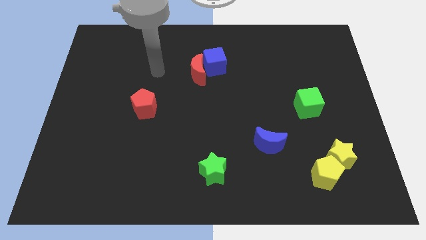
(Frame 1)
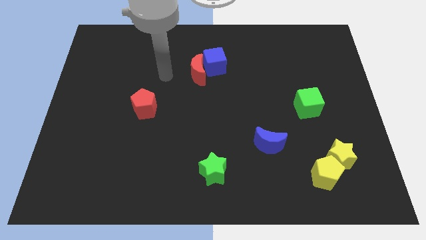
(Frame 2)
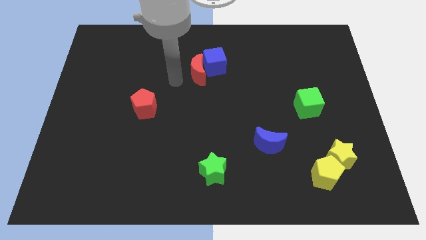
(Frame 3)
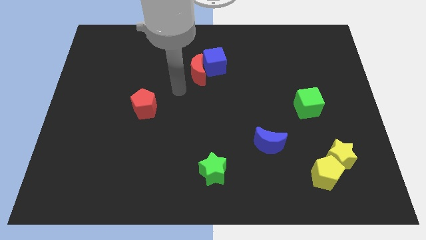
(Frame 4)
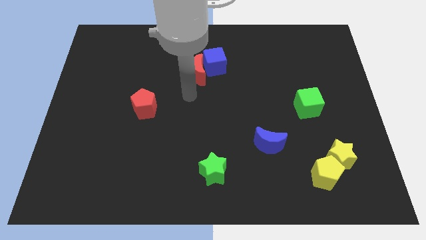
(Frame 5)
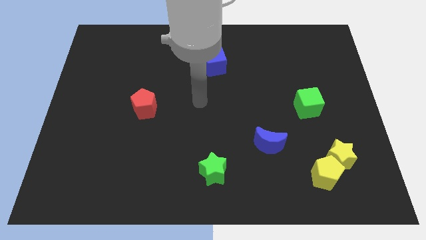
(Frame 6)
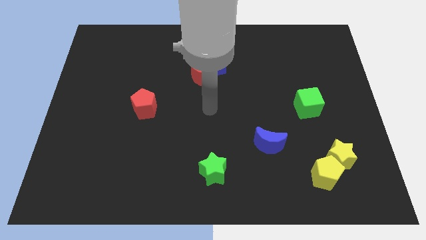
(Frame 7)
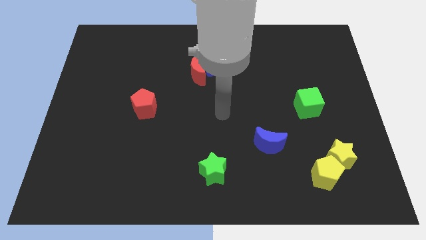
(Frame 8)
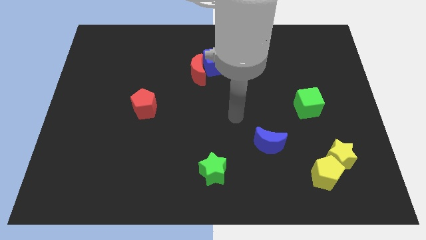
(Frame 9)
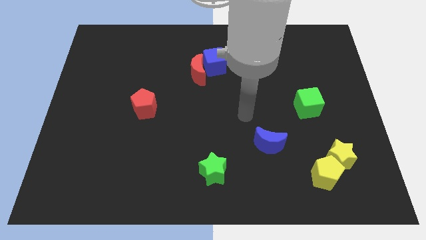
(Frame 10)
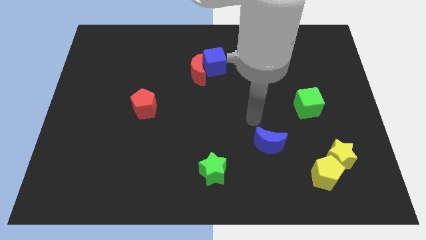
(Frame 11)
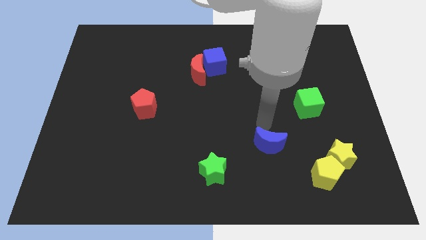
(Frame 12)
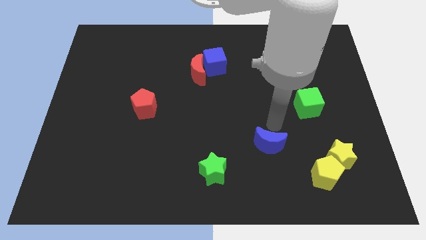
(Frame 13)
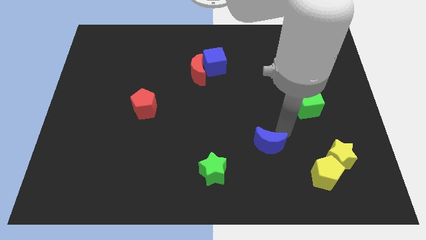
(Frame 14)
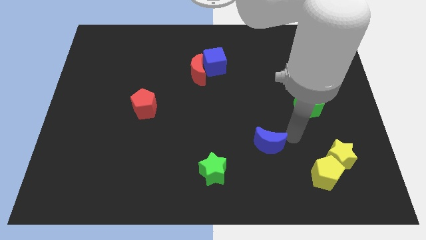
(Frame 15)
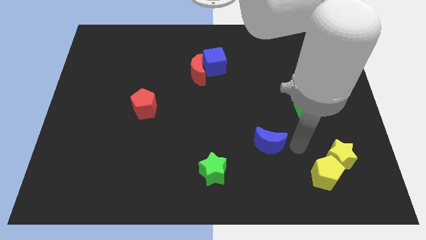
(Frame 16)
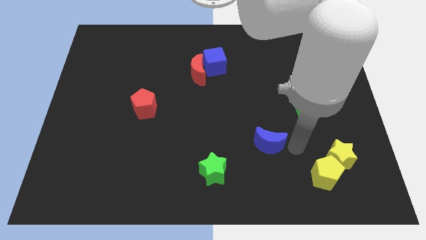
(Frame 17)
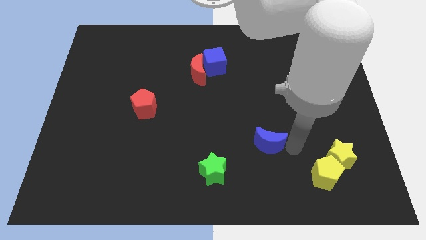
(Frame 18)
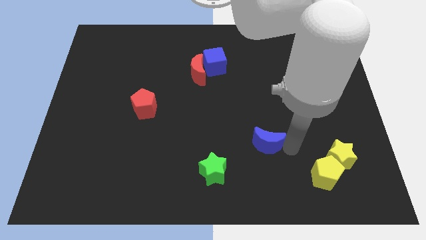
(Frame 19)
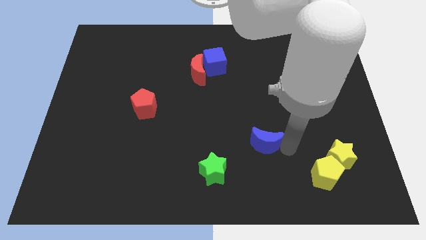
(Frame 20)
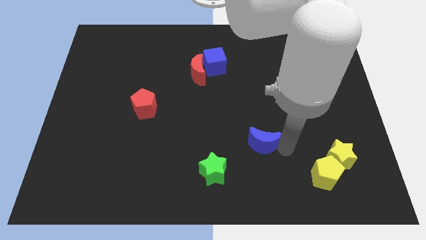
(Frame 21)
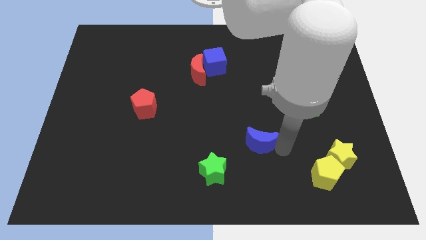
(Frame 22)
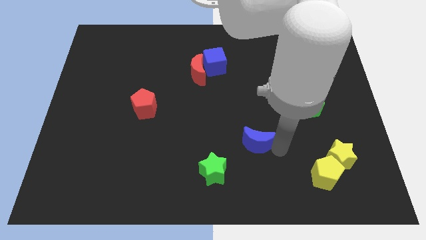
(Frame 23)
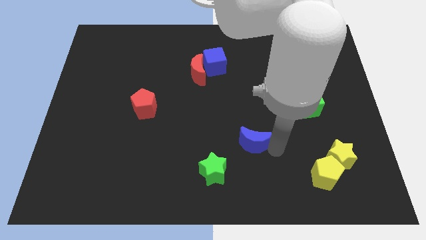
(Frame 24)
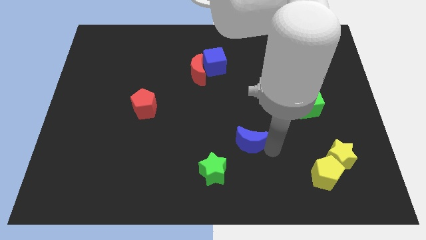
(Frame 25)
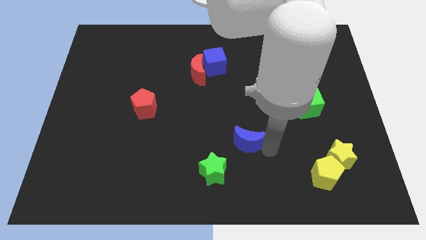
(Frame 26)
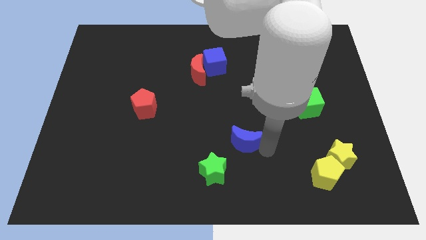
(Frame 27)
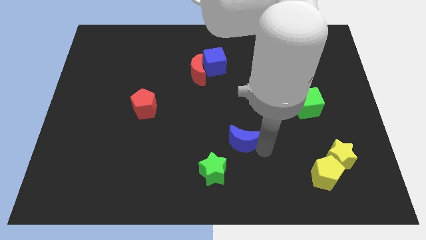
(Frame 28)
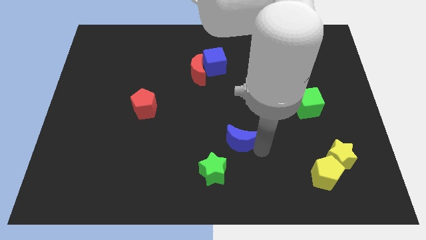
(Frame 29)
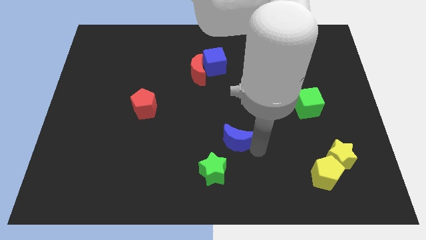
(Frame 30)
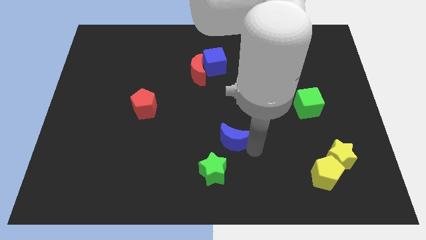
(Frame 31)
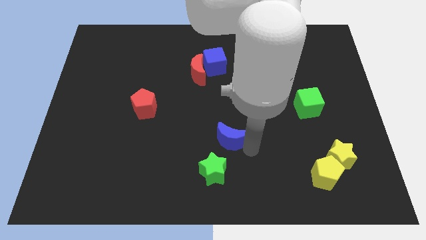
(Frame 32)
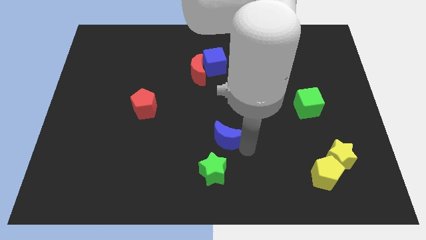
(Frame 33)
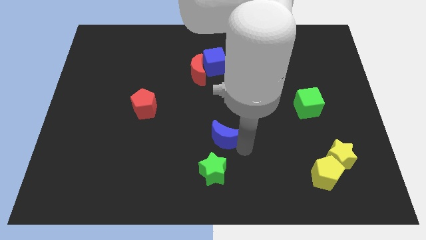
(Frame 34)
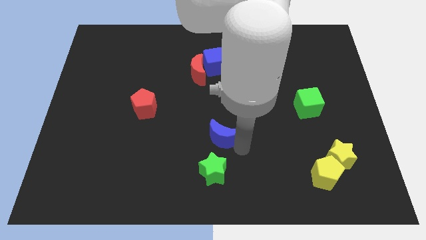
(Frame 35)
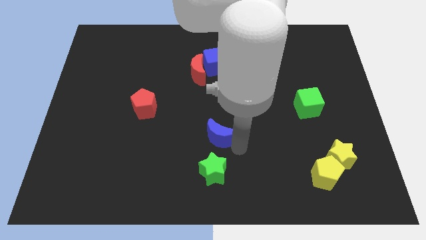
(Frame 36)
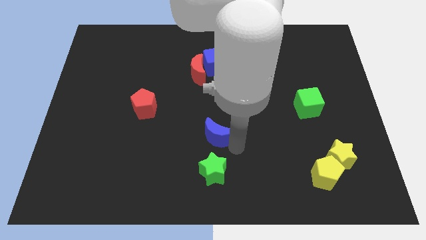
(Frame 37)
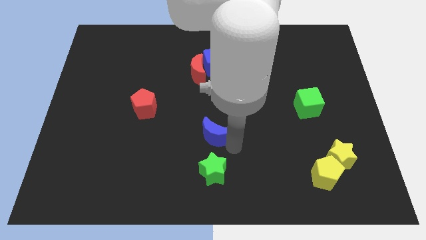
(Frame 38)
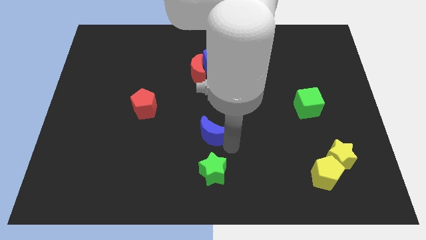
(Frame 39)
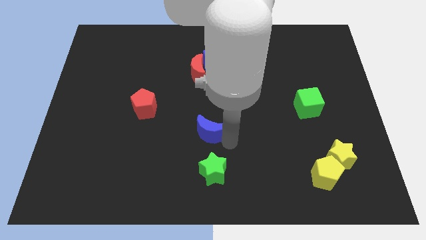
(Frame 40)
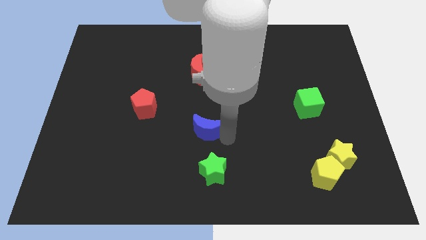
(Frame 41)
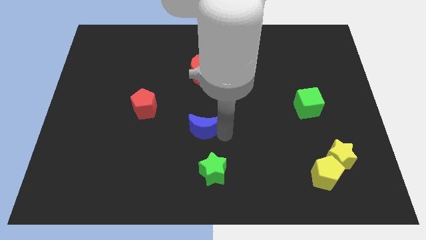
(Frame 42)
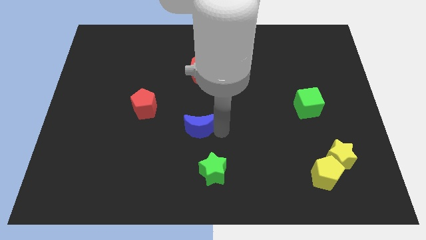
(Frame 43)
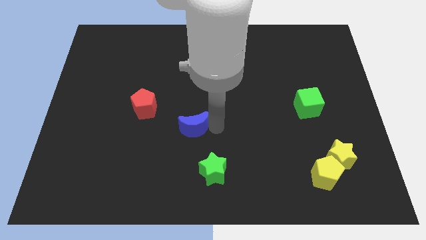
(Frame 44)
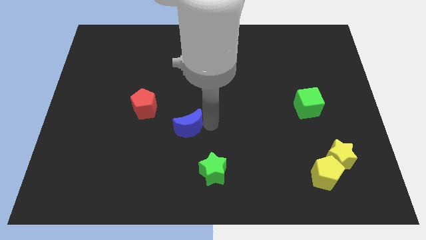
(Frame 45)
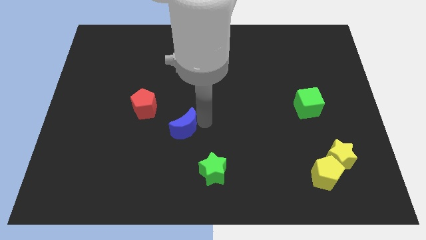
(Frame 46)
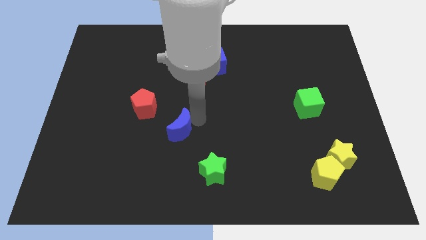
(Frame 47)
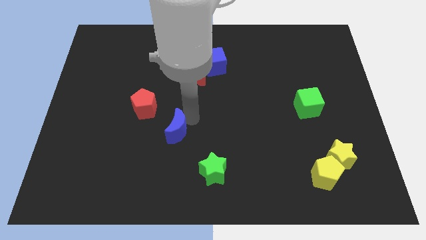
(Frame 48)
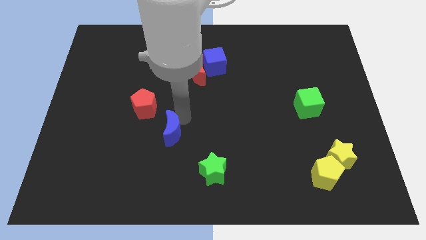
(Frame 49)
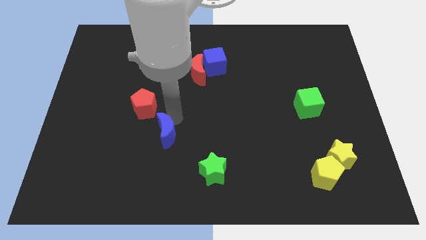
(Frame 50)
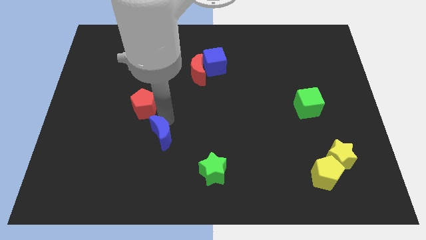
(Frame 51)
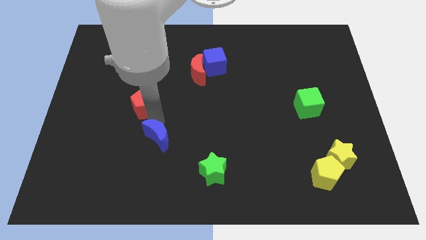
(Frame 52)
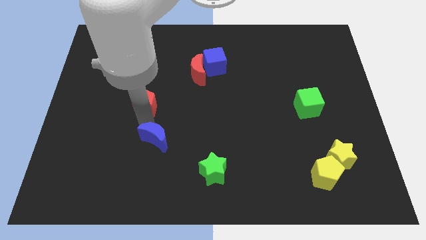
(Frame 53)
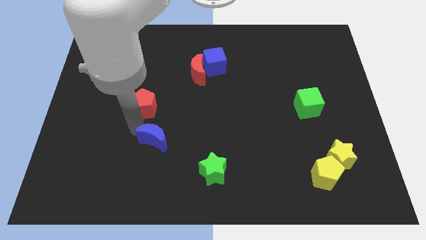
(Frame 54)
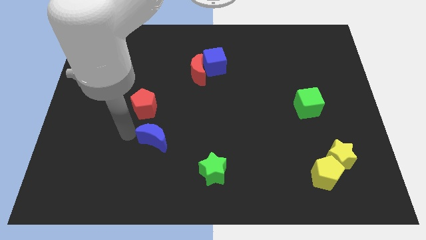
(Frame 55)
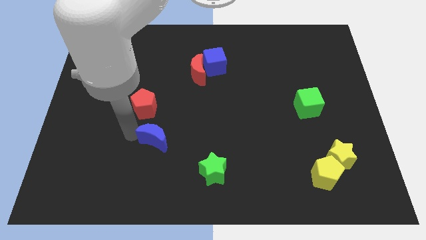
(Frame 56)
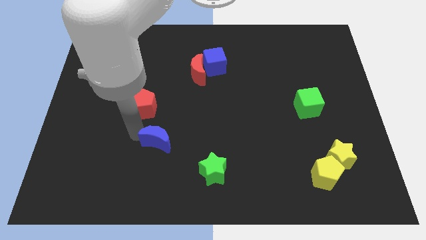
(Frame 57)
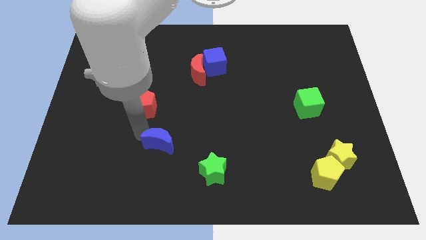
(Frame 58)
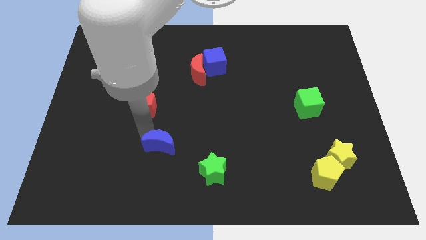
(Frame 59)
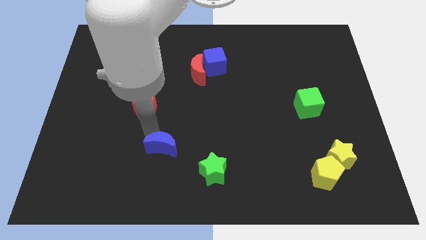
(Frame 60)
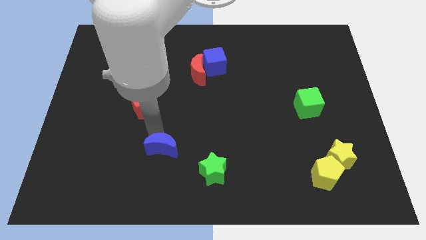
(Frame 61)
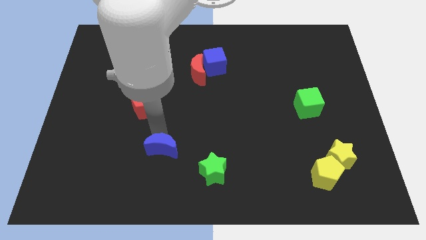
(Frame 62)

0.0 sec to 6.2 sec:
push the blue moon to the top left side of the green star
